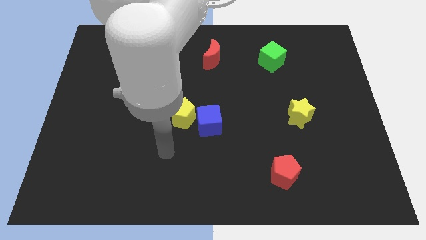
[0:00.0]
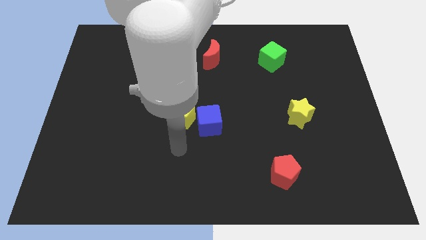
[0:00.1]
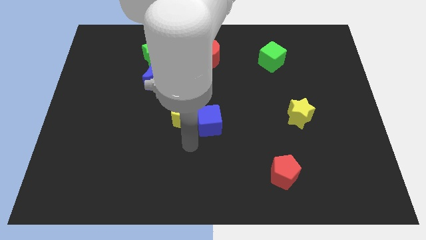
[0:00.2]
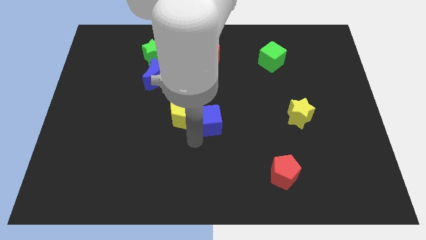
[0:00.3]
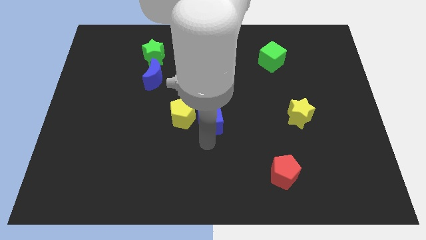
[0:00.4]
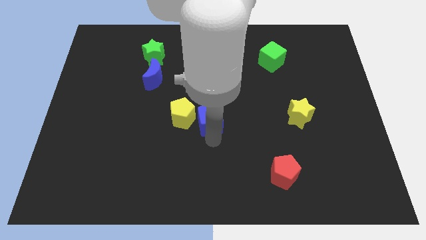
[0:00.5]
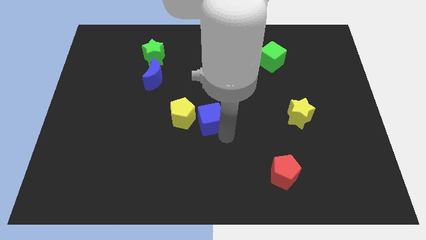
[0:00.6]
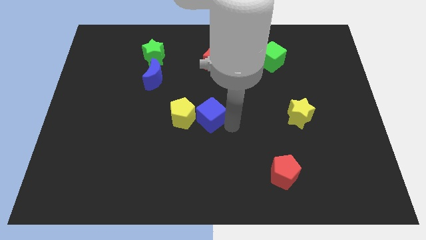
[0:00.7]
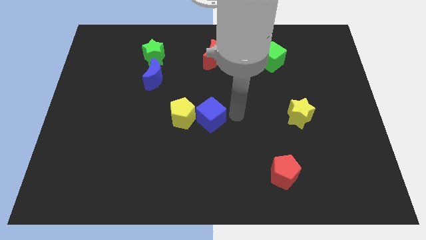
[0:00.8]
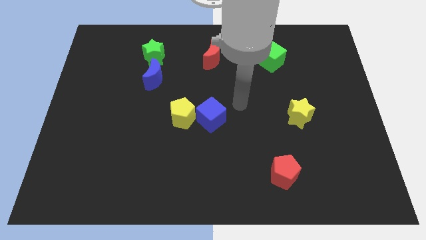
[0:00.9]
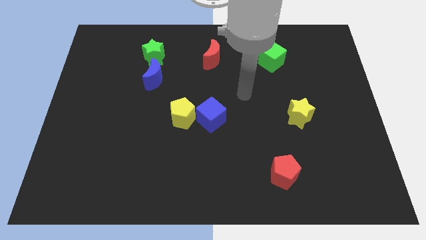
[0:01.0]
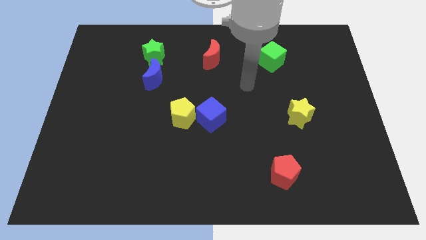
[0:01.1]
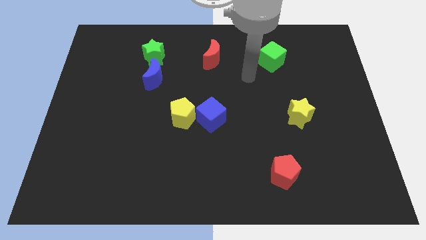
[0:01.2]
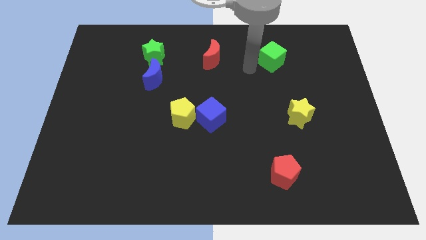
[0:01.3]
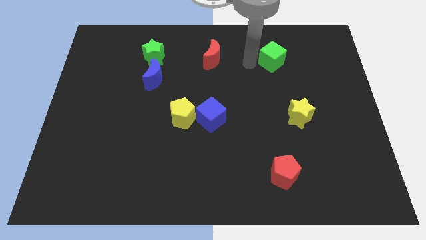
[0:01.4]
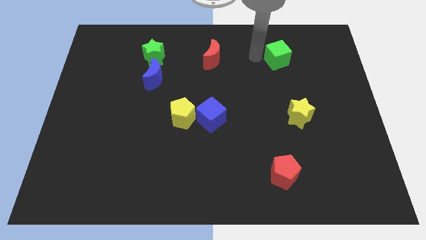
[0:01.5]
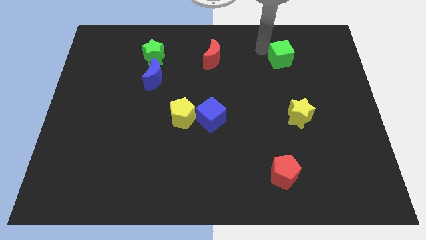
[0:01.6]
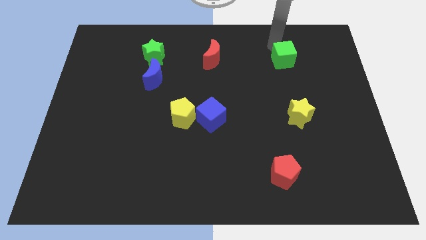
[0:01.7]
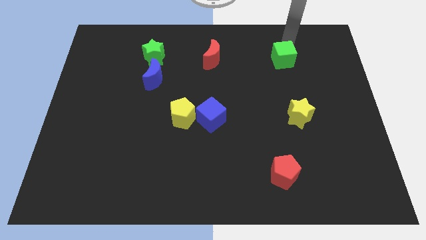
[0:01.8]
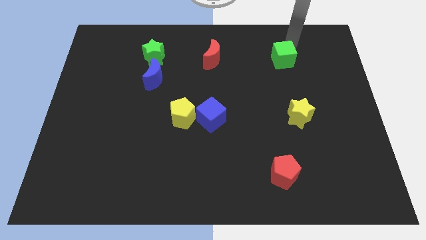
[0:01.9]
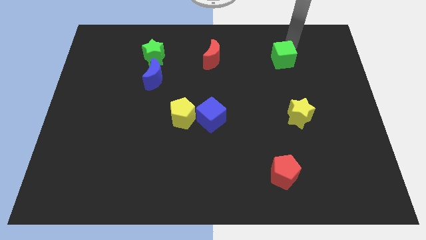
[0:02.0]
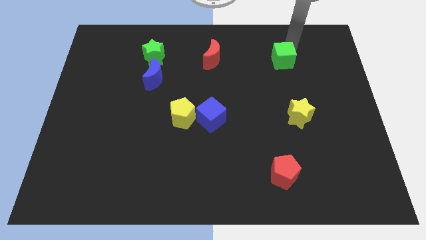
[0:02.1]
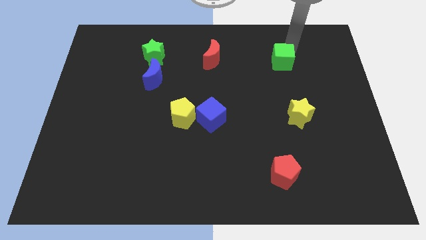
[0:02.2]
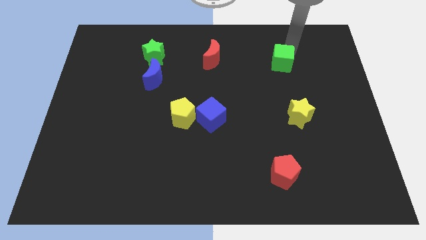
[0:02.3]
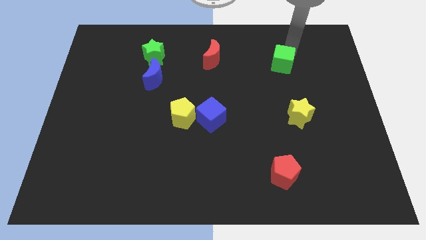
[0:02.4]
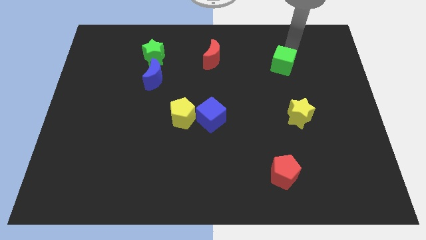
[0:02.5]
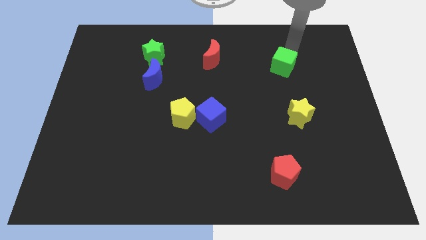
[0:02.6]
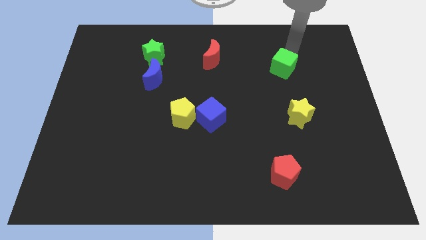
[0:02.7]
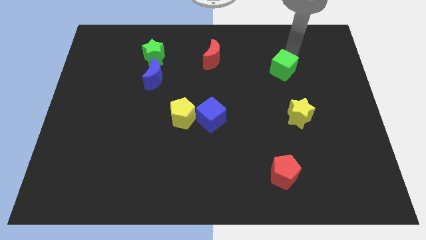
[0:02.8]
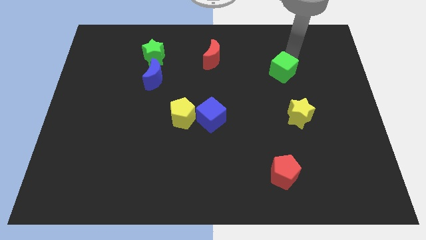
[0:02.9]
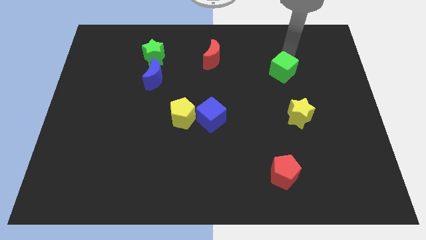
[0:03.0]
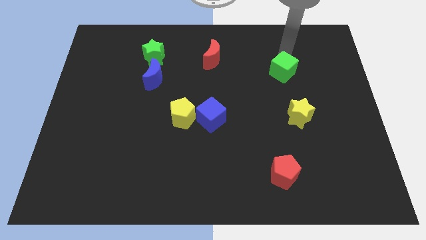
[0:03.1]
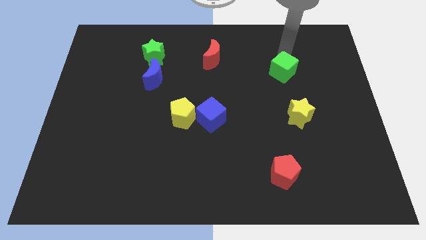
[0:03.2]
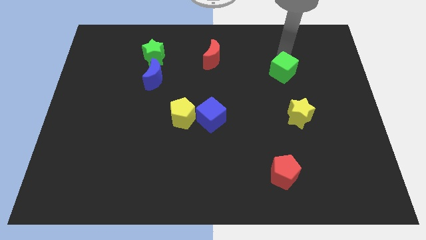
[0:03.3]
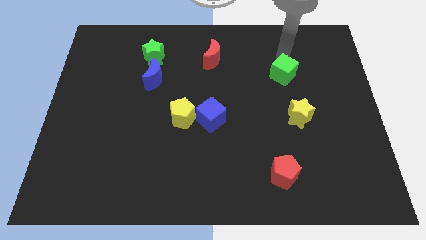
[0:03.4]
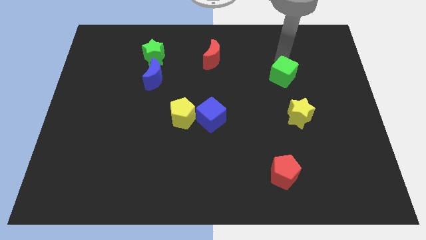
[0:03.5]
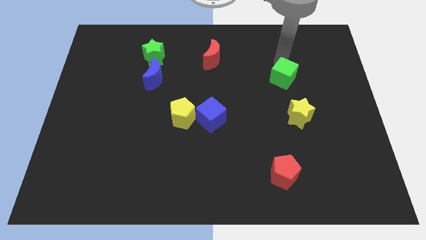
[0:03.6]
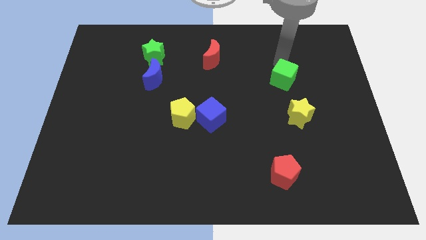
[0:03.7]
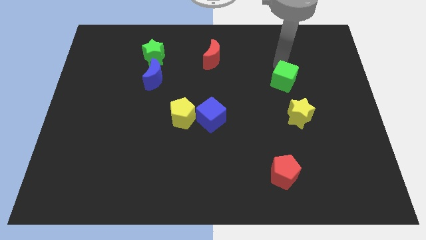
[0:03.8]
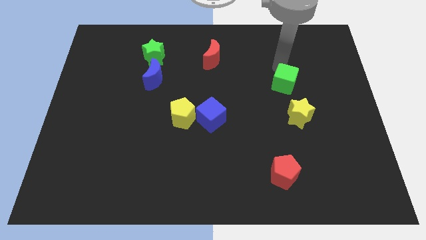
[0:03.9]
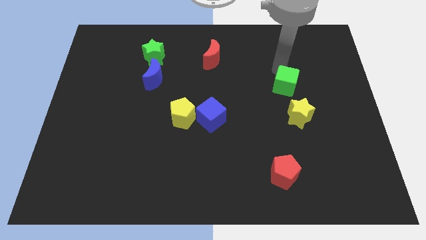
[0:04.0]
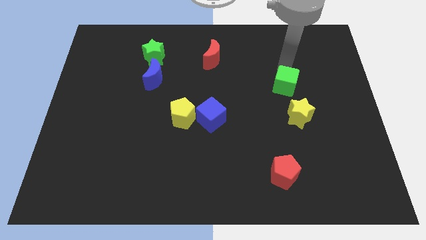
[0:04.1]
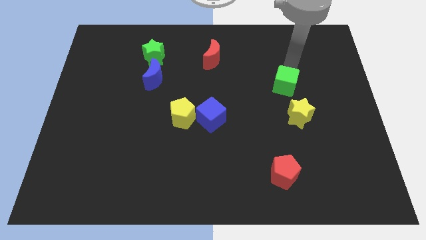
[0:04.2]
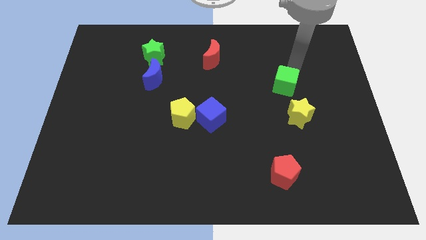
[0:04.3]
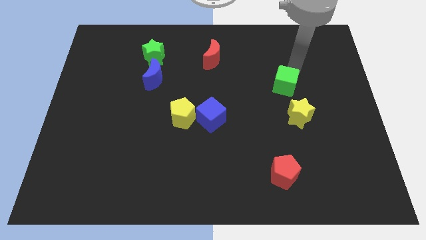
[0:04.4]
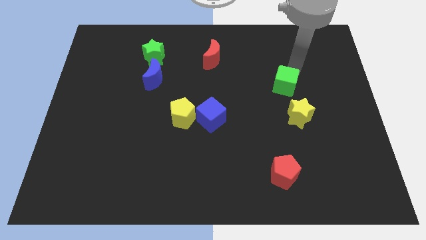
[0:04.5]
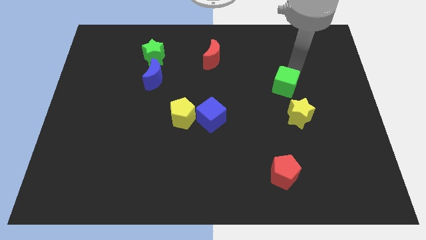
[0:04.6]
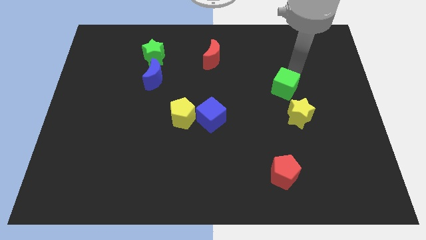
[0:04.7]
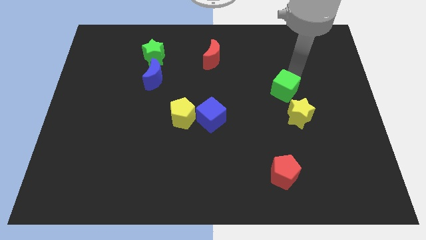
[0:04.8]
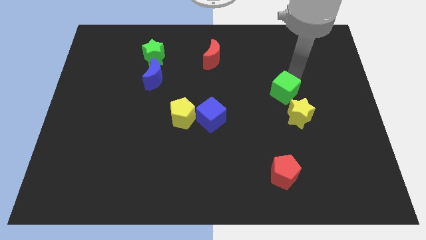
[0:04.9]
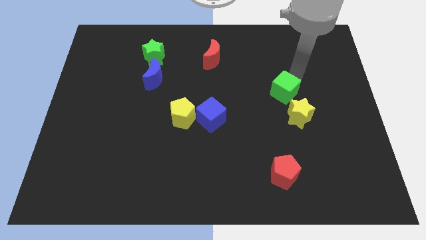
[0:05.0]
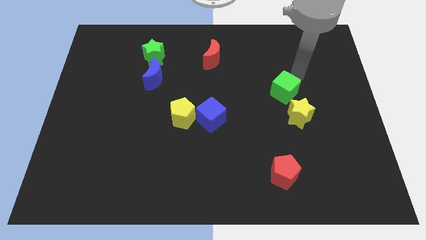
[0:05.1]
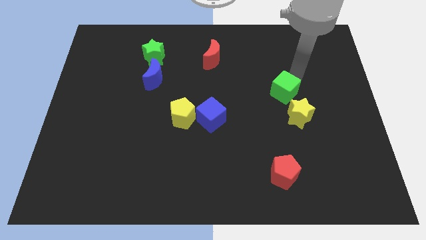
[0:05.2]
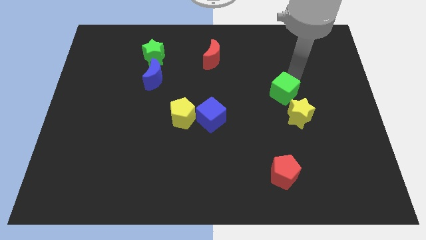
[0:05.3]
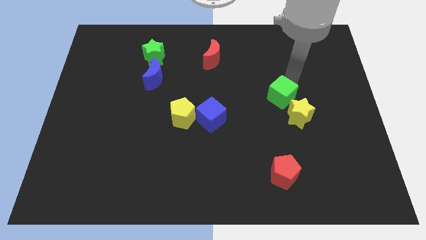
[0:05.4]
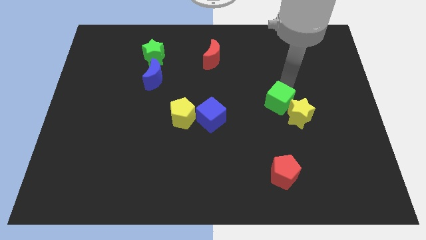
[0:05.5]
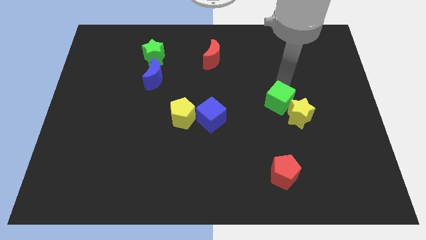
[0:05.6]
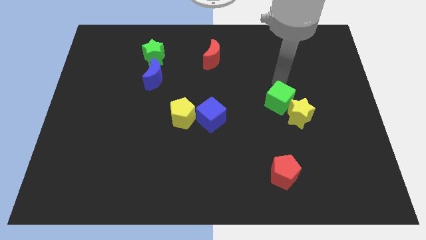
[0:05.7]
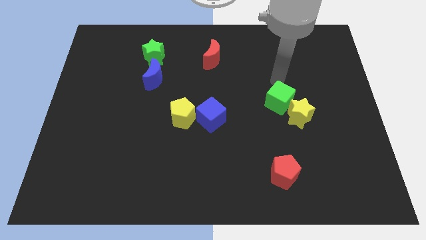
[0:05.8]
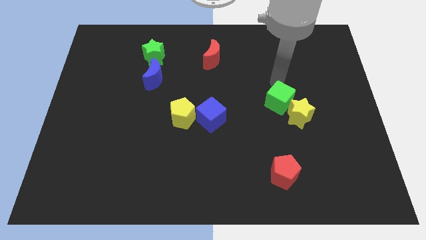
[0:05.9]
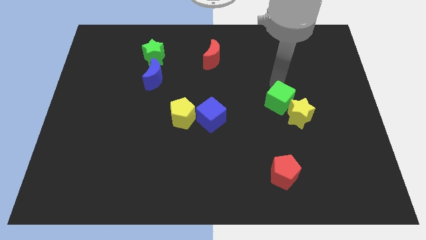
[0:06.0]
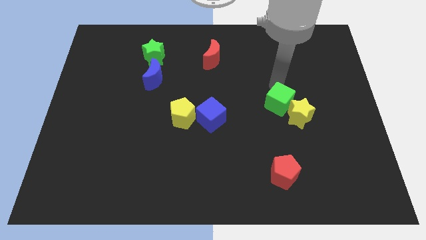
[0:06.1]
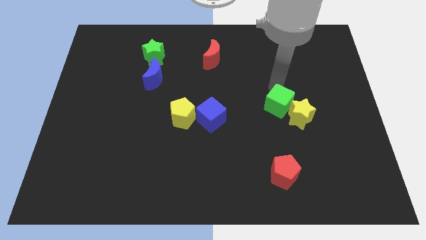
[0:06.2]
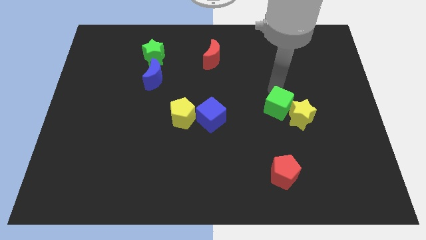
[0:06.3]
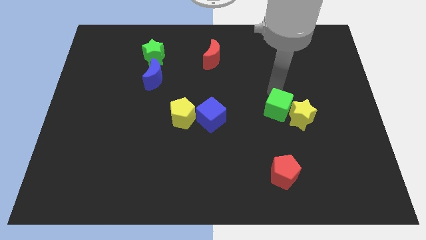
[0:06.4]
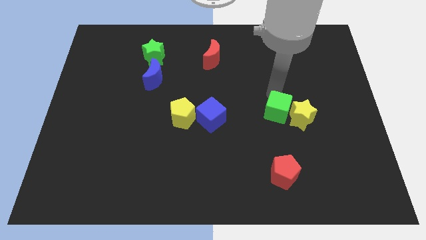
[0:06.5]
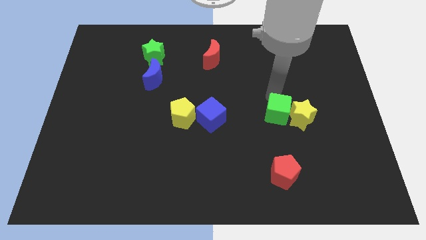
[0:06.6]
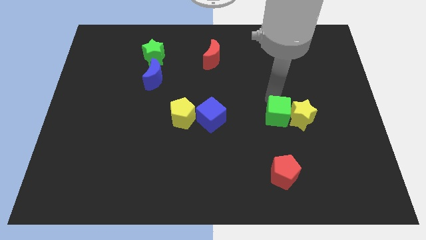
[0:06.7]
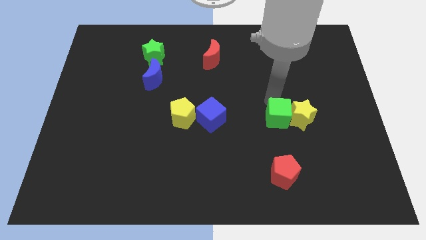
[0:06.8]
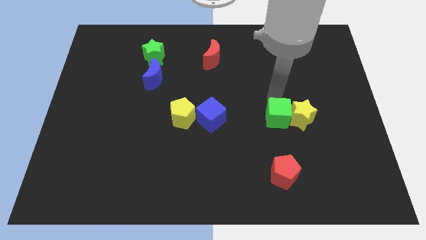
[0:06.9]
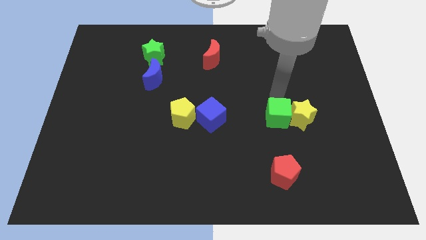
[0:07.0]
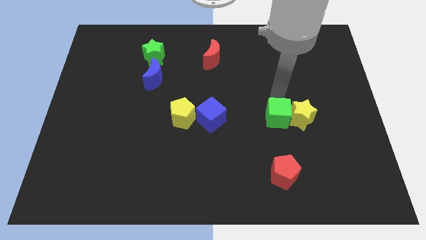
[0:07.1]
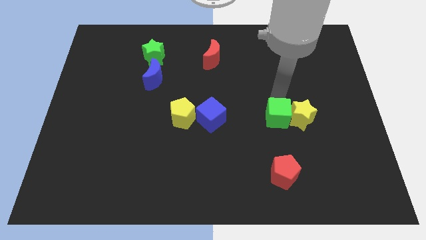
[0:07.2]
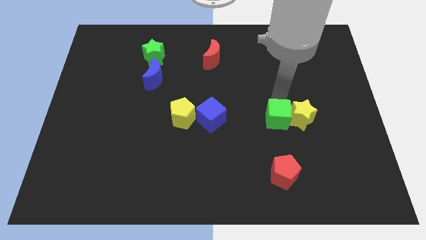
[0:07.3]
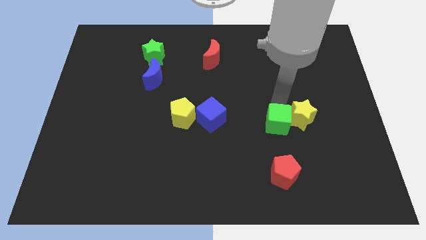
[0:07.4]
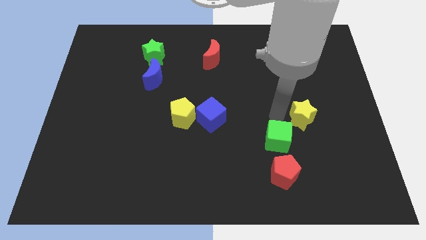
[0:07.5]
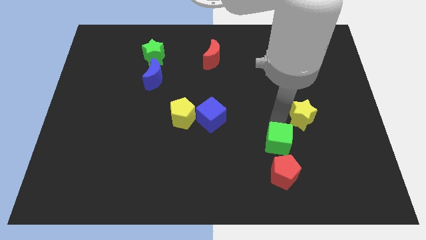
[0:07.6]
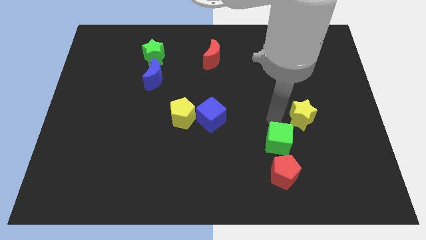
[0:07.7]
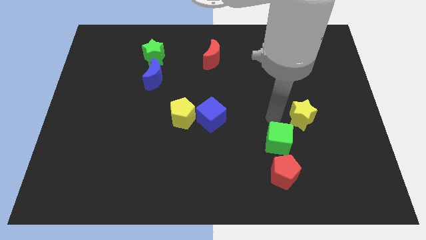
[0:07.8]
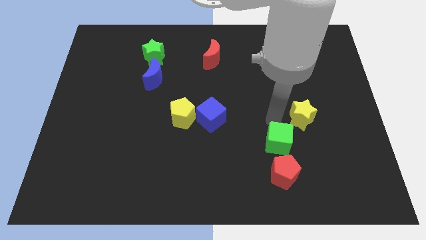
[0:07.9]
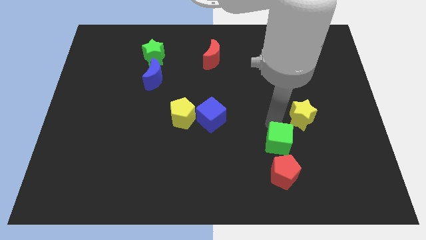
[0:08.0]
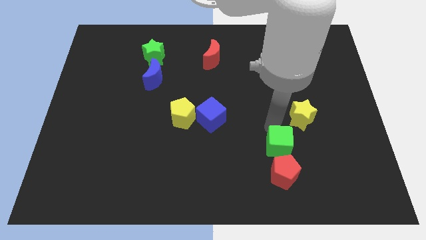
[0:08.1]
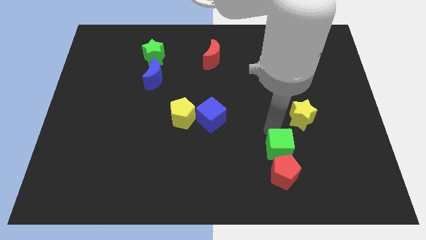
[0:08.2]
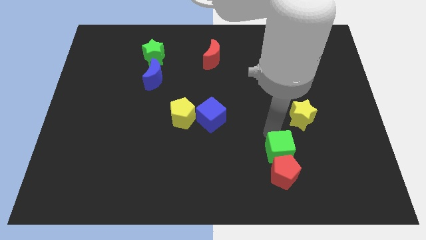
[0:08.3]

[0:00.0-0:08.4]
put the green cube towards the red pentagon
